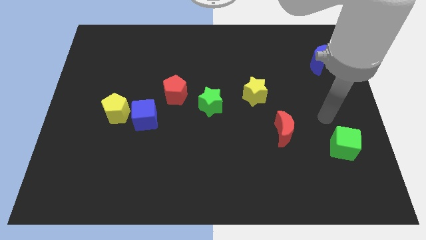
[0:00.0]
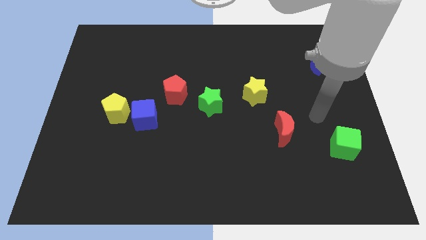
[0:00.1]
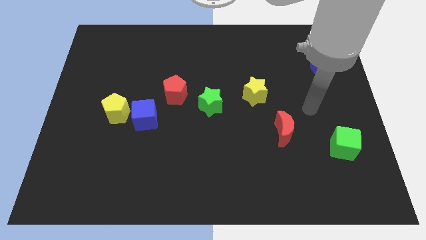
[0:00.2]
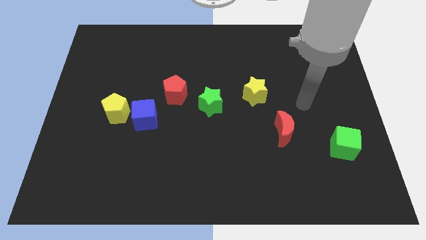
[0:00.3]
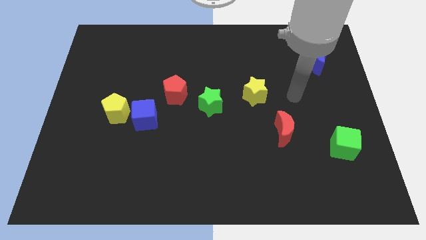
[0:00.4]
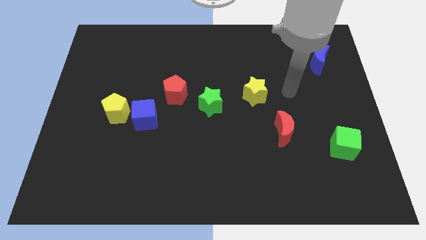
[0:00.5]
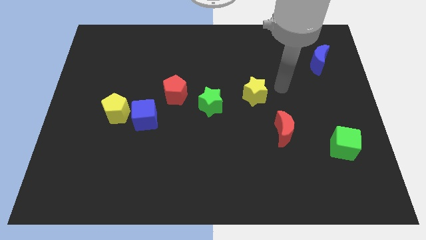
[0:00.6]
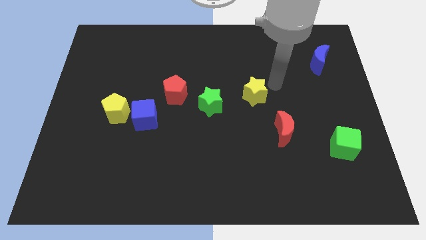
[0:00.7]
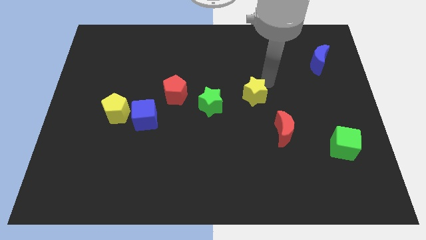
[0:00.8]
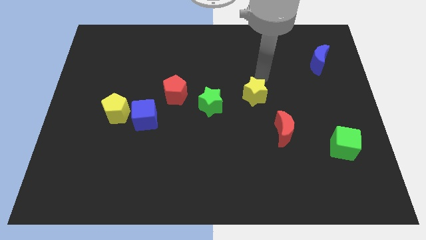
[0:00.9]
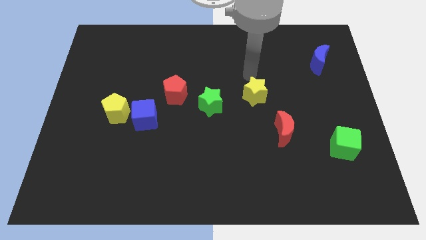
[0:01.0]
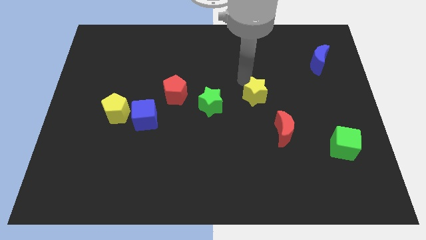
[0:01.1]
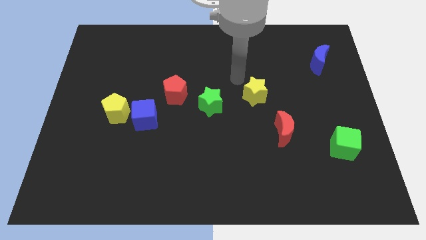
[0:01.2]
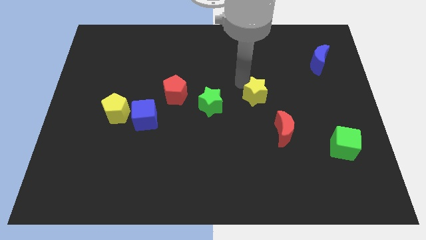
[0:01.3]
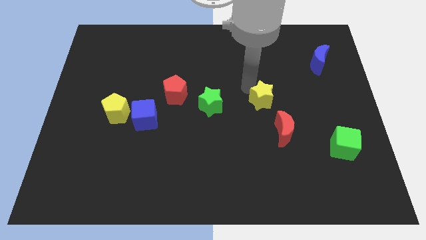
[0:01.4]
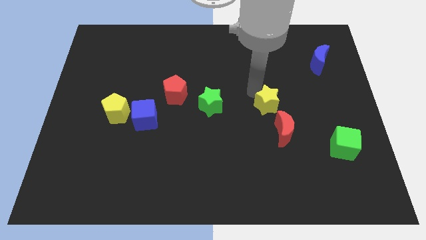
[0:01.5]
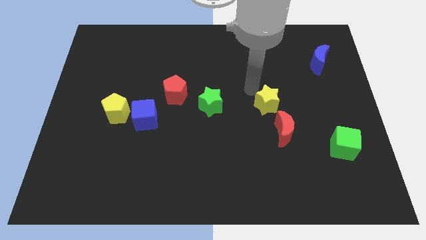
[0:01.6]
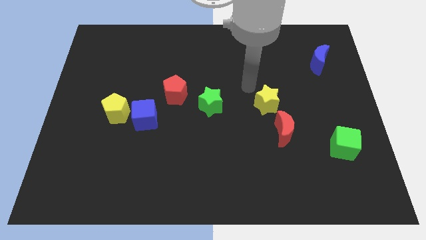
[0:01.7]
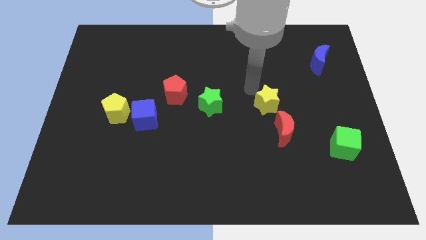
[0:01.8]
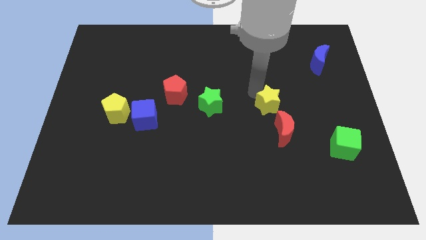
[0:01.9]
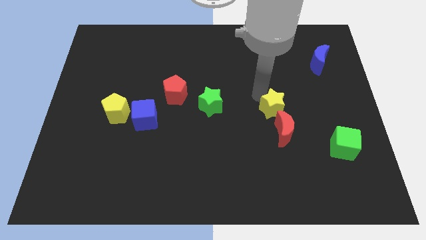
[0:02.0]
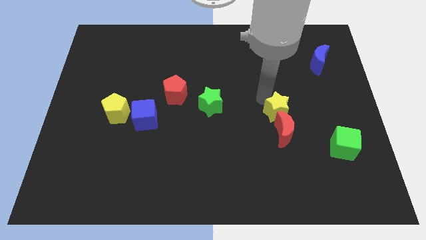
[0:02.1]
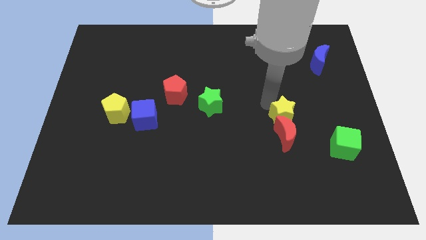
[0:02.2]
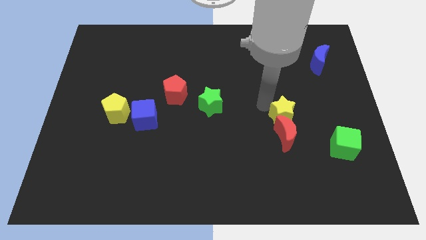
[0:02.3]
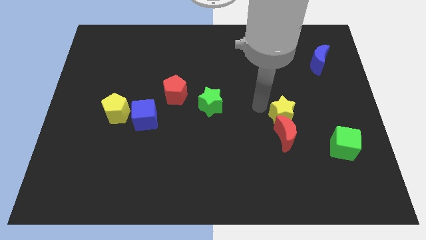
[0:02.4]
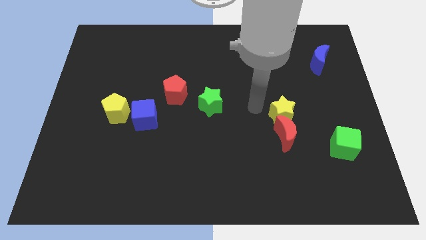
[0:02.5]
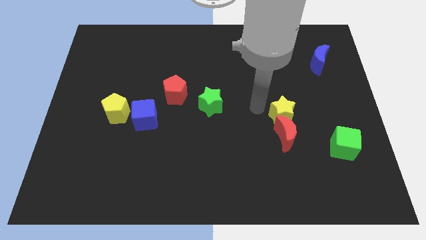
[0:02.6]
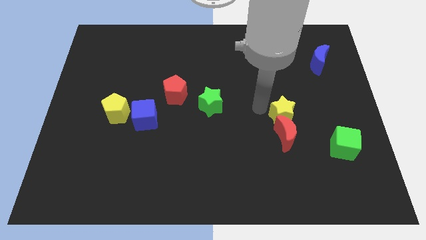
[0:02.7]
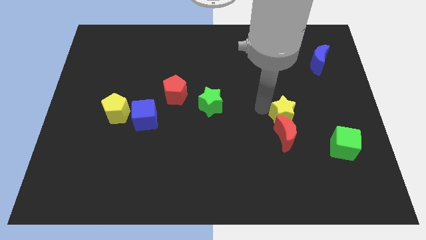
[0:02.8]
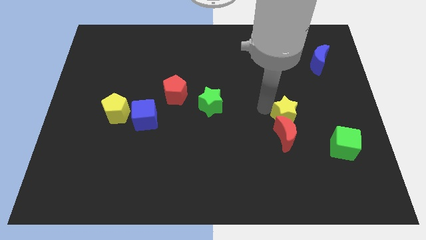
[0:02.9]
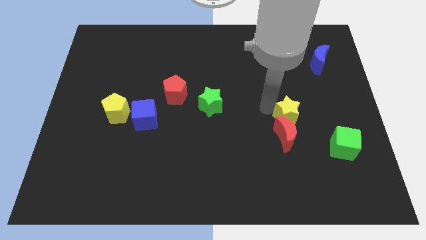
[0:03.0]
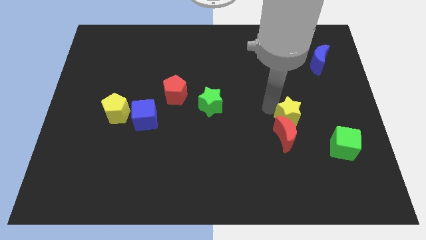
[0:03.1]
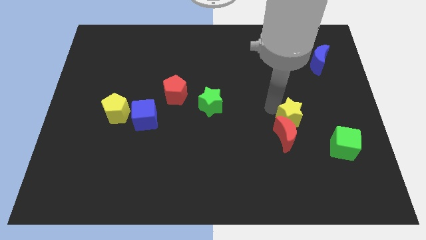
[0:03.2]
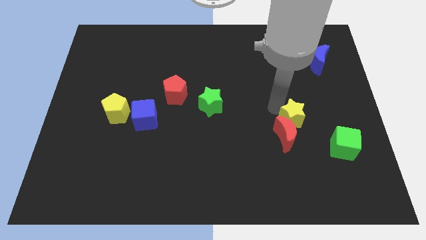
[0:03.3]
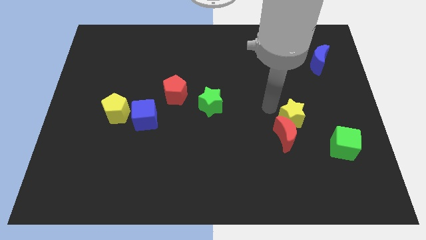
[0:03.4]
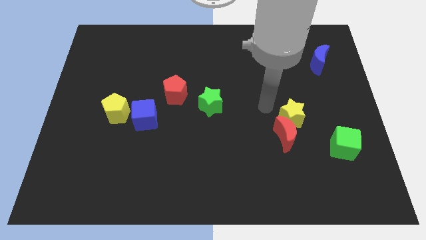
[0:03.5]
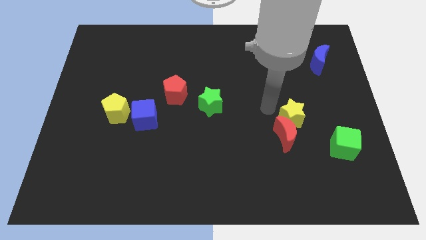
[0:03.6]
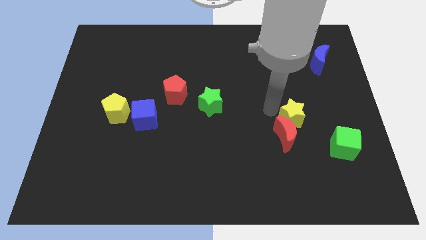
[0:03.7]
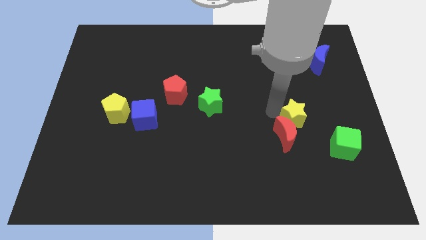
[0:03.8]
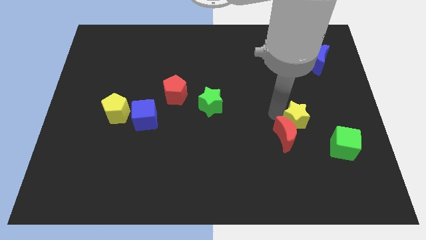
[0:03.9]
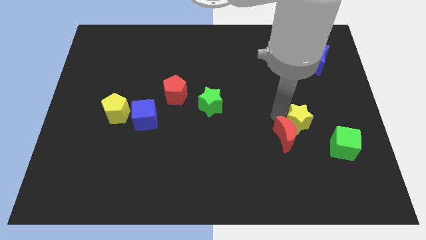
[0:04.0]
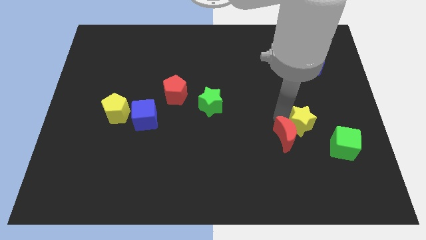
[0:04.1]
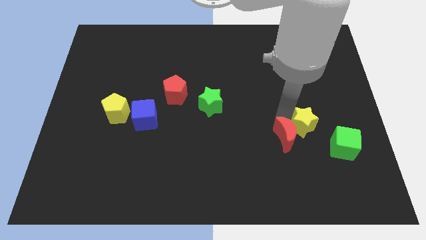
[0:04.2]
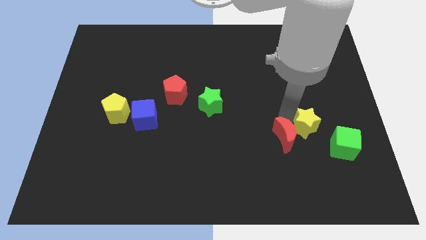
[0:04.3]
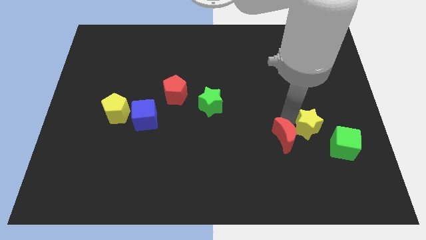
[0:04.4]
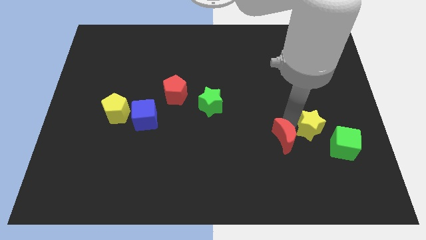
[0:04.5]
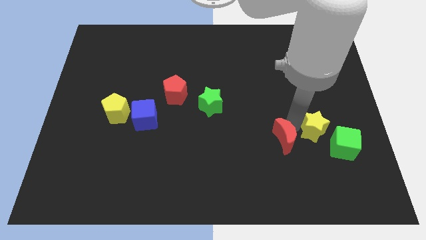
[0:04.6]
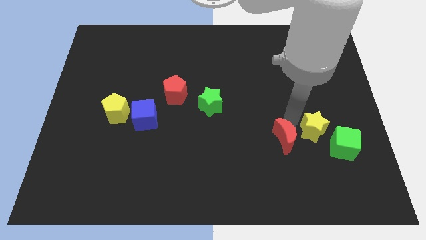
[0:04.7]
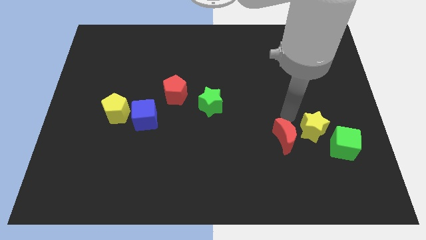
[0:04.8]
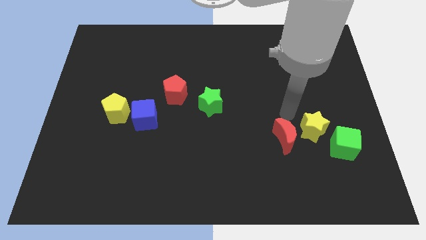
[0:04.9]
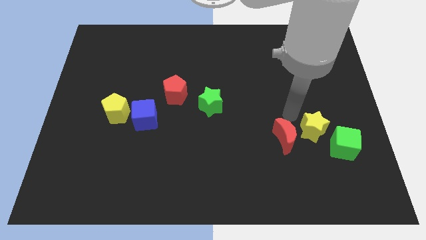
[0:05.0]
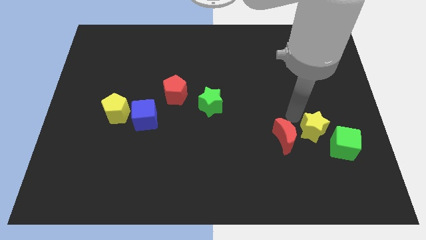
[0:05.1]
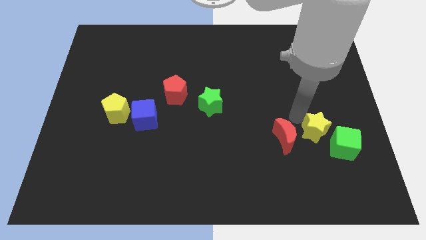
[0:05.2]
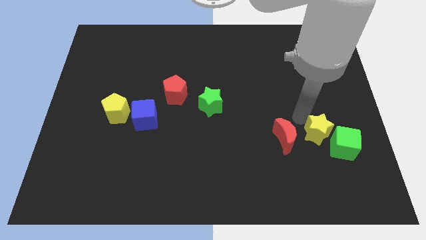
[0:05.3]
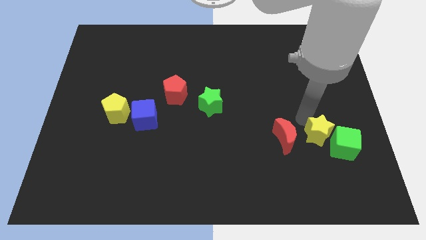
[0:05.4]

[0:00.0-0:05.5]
move the yellow star towards the green cube
